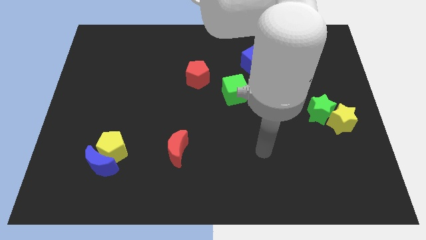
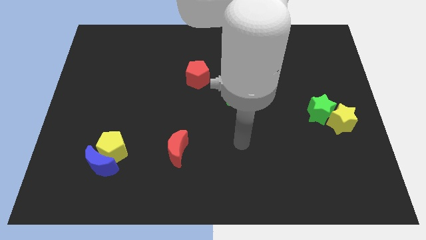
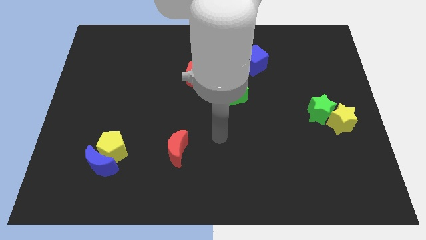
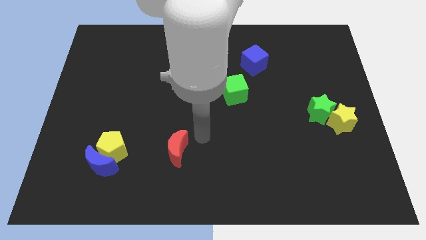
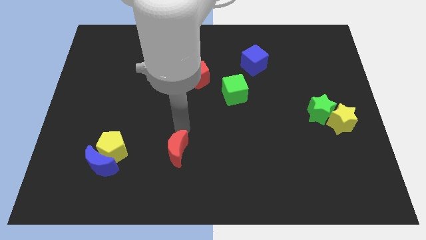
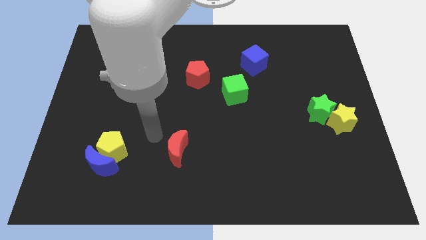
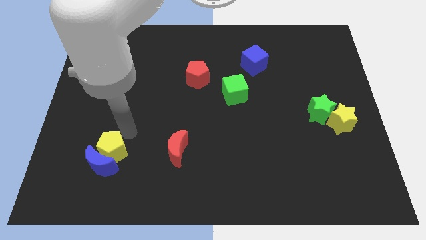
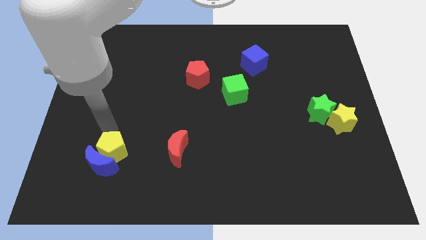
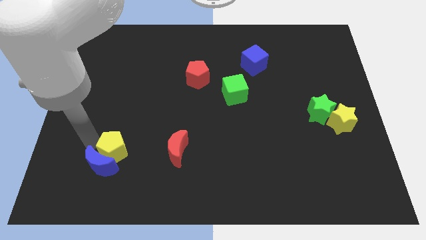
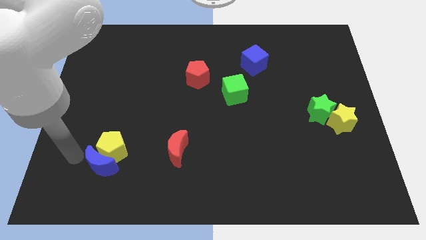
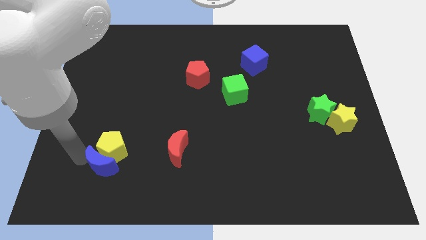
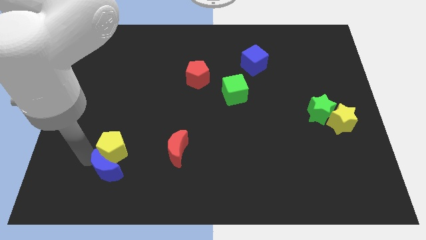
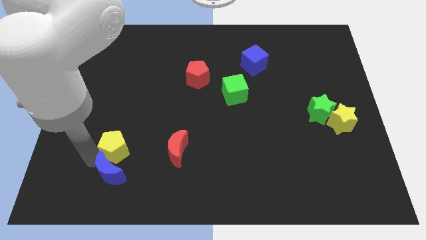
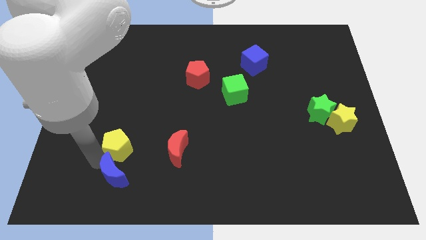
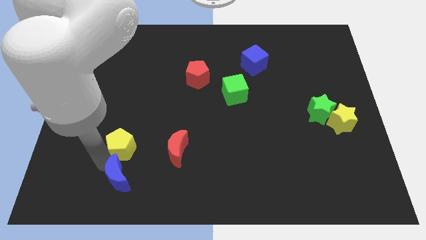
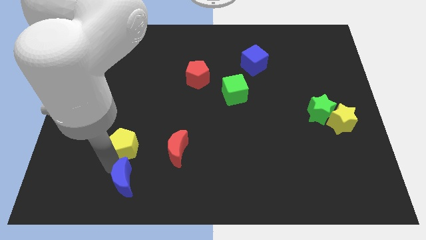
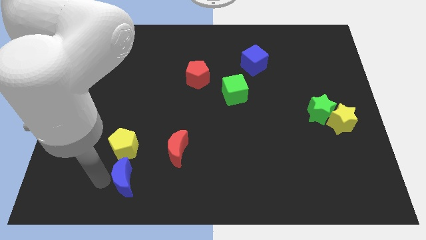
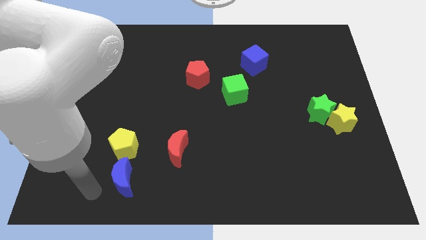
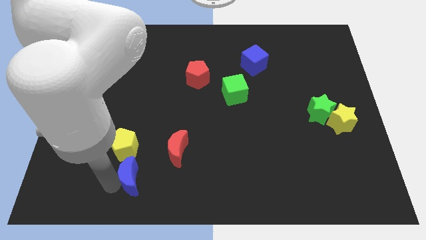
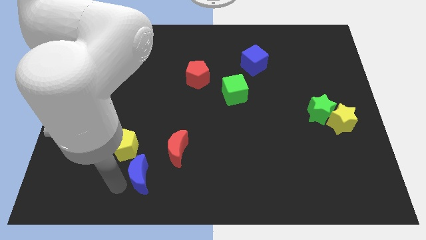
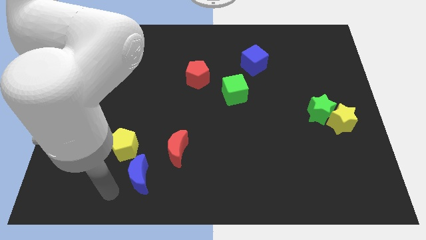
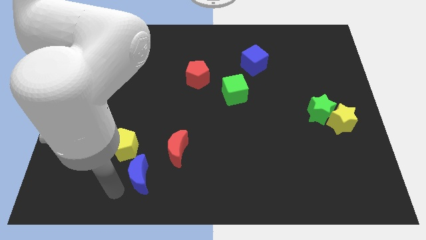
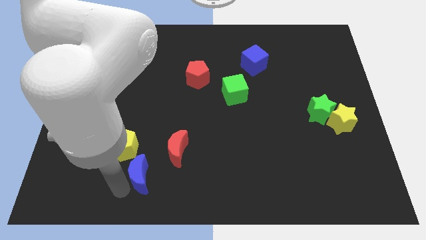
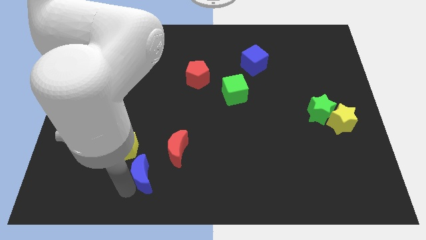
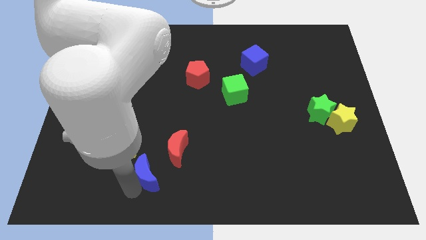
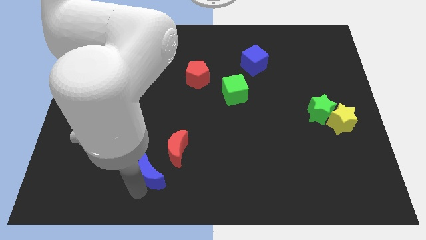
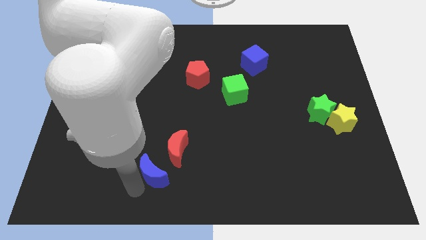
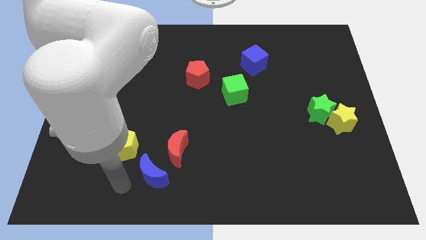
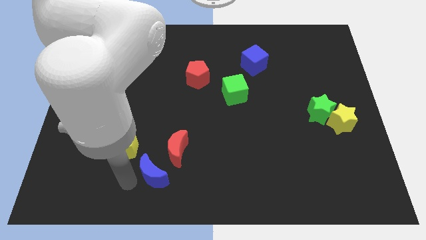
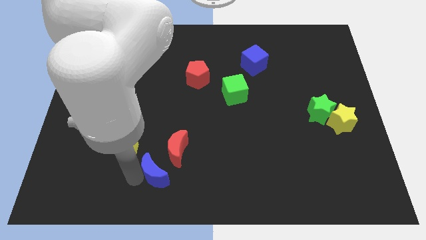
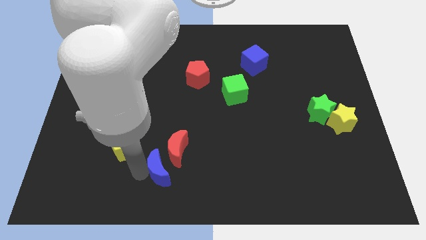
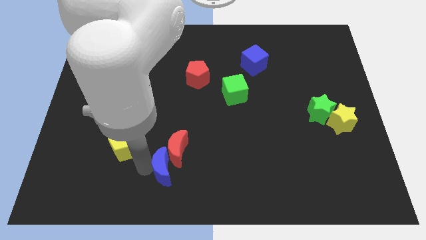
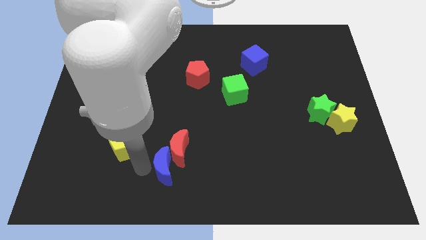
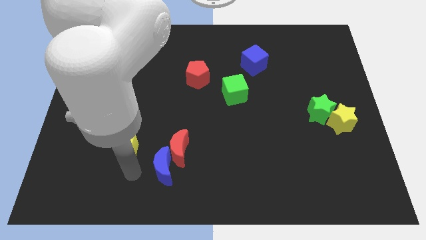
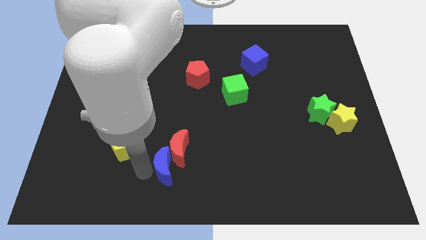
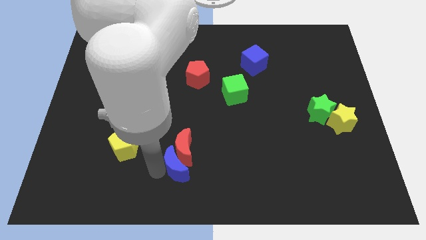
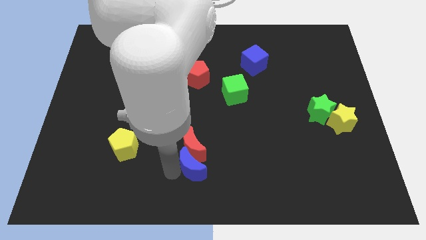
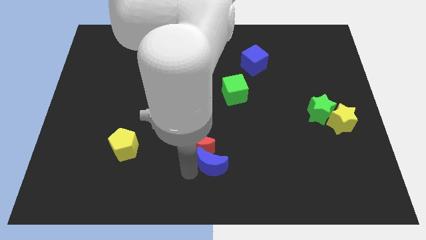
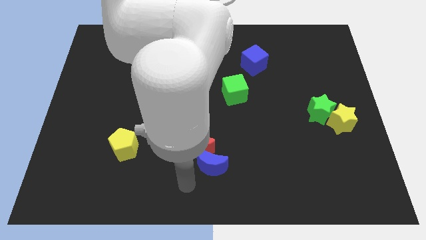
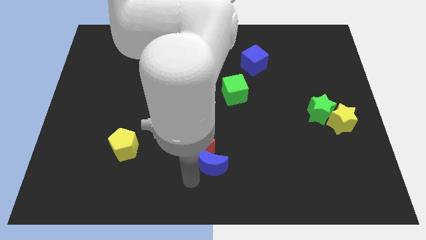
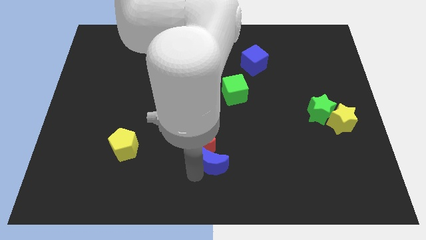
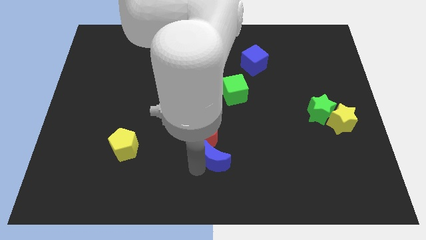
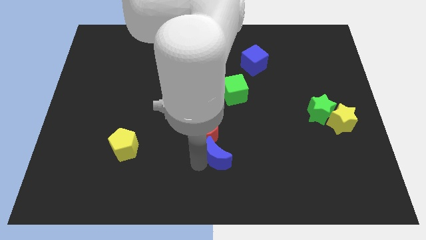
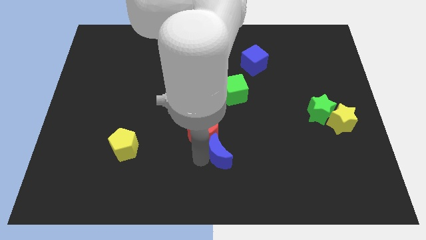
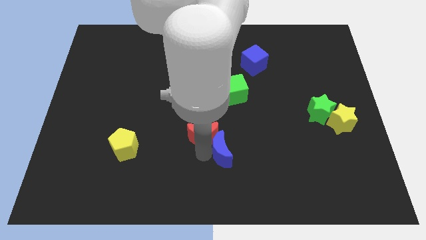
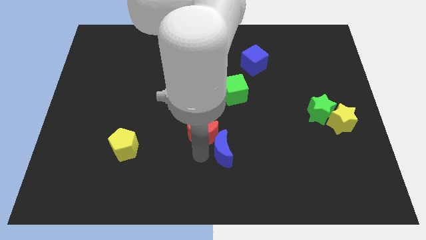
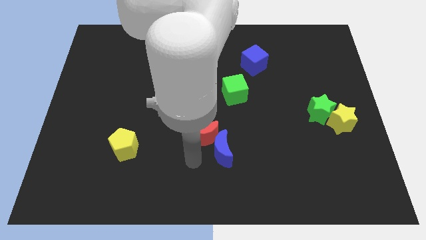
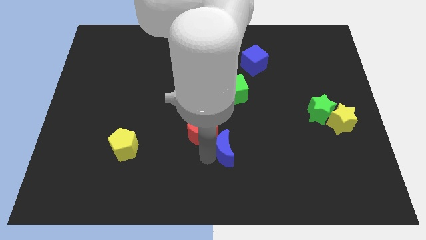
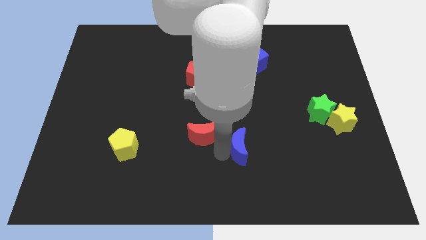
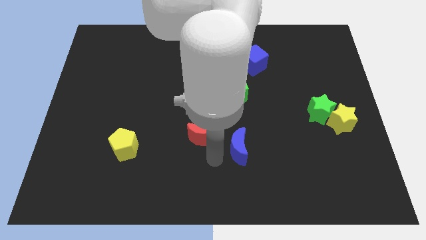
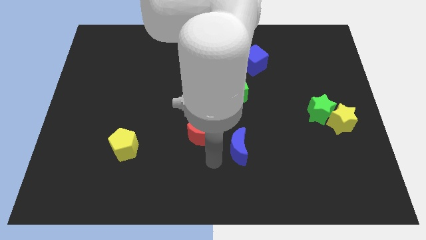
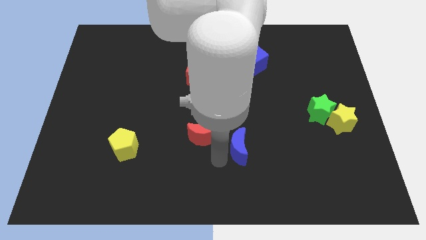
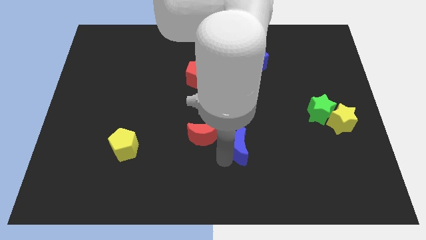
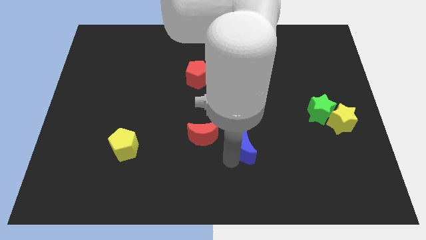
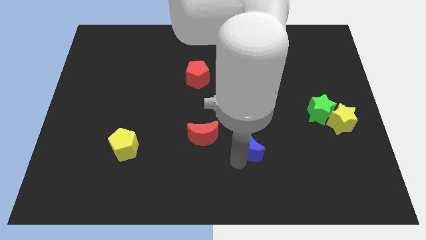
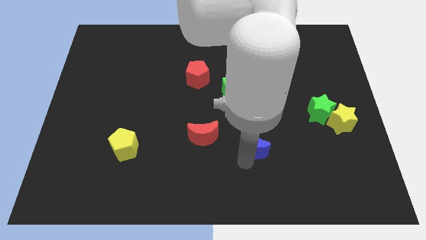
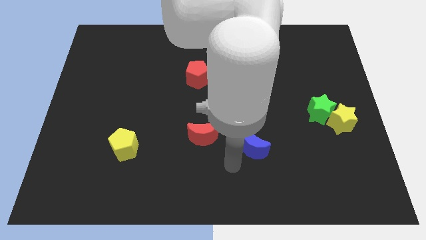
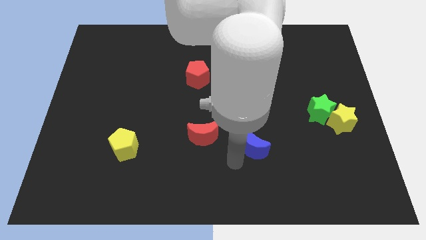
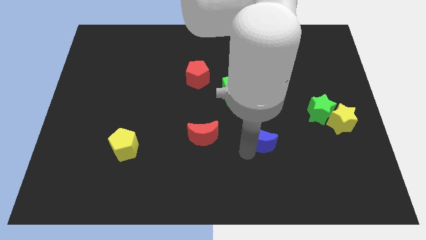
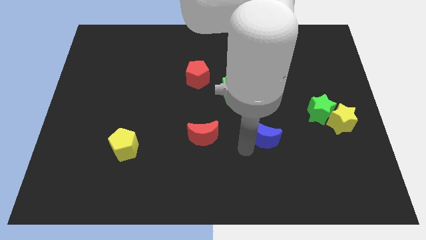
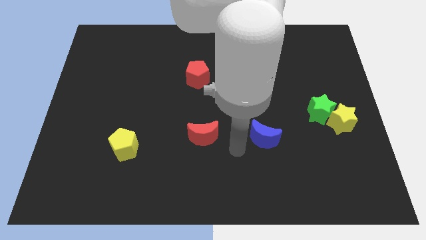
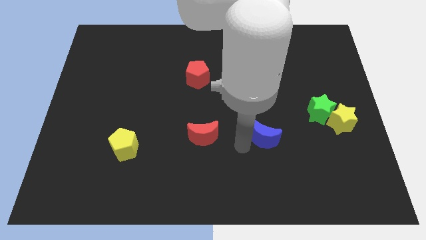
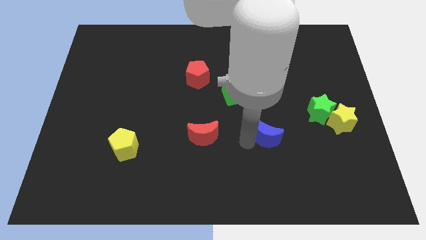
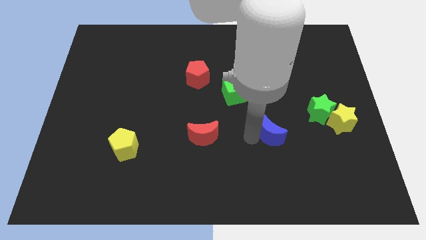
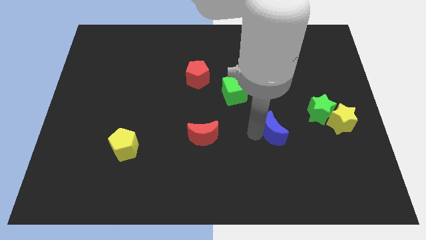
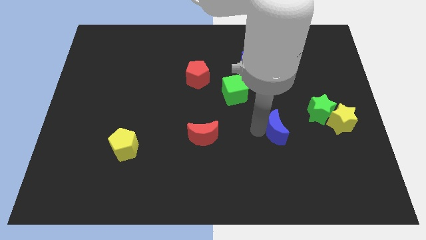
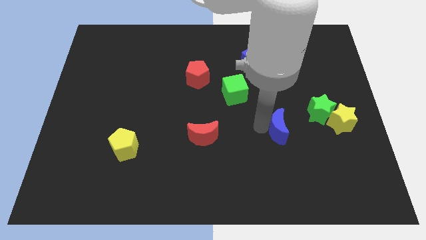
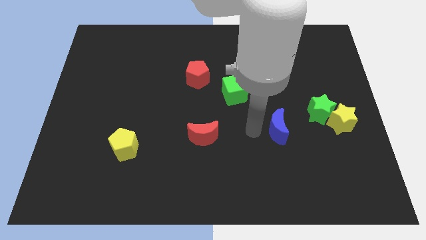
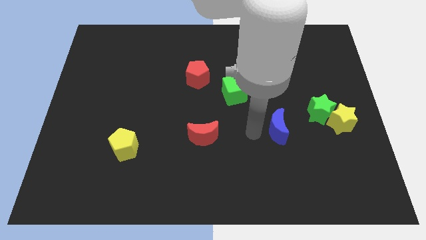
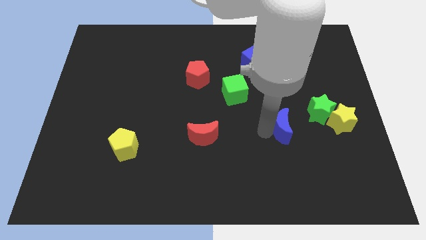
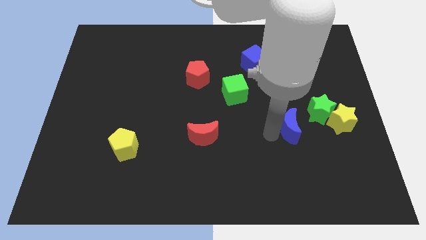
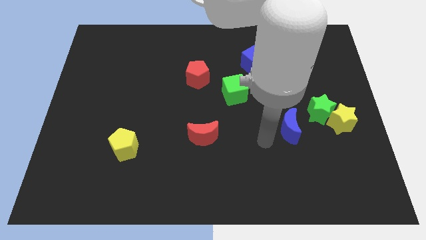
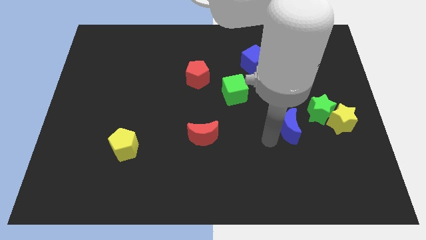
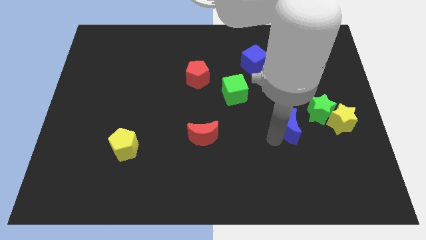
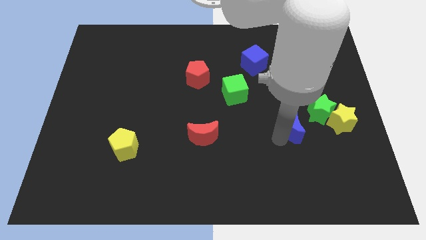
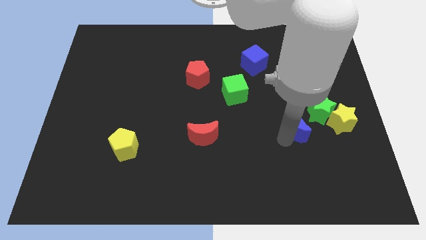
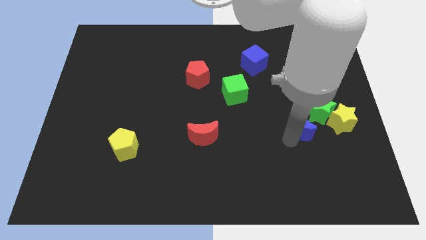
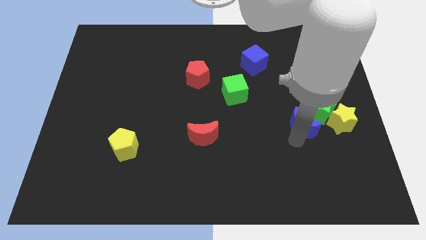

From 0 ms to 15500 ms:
move the blue moon towards the green star
